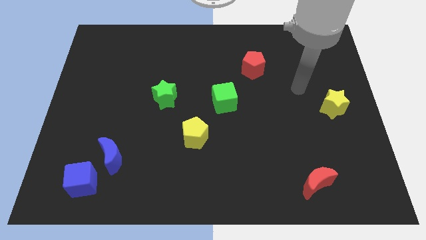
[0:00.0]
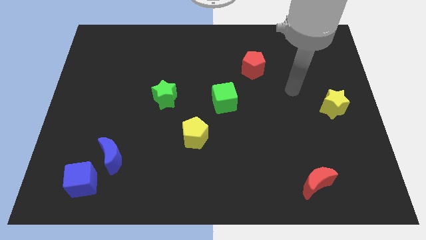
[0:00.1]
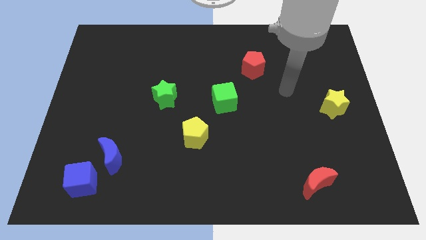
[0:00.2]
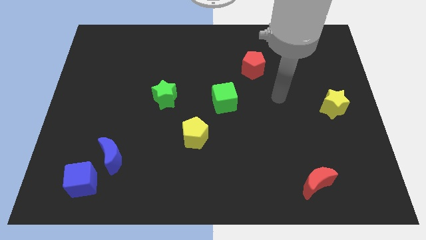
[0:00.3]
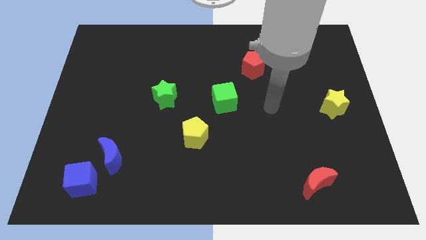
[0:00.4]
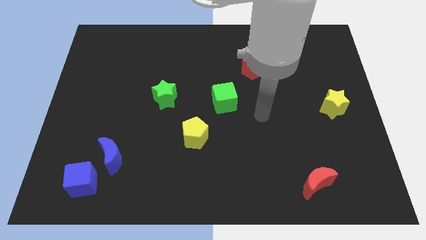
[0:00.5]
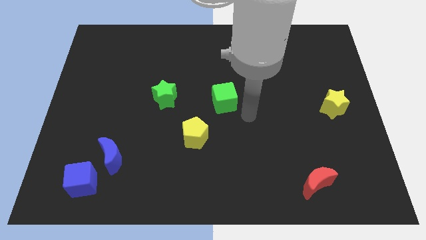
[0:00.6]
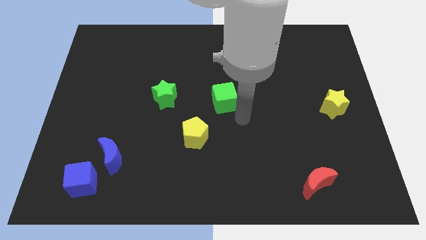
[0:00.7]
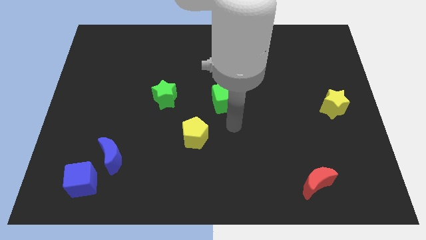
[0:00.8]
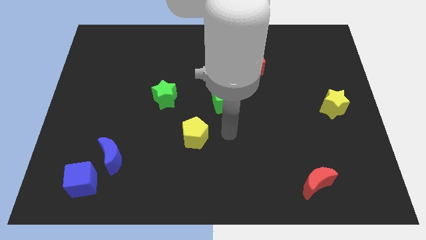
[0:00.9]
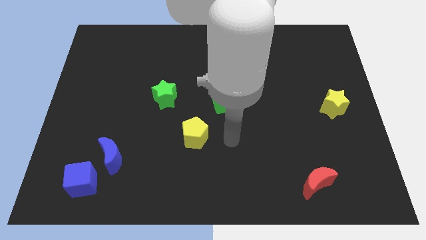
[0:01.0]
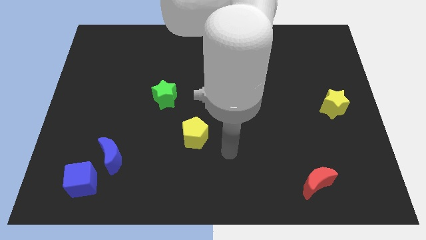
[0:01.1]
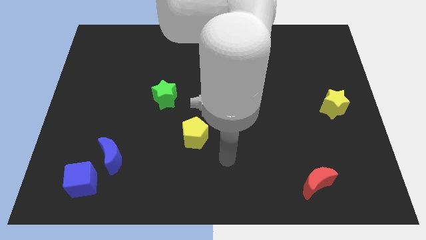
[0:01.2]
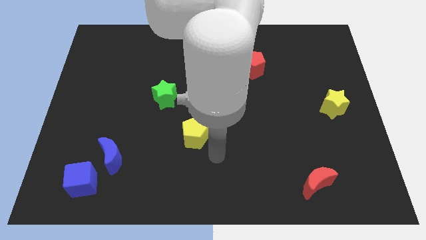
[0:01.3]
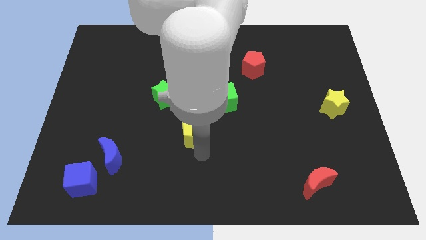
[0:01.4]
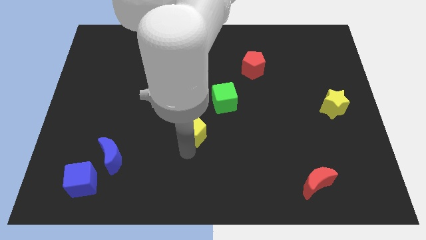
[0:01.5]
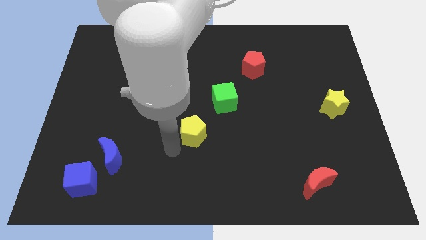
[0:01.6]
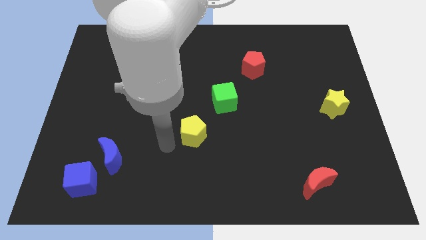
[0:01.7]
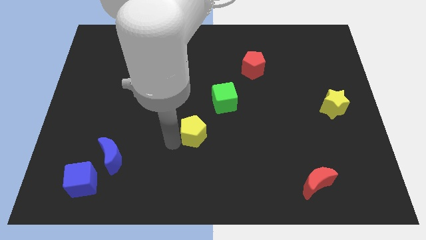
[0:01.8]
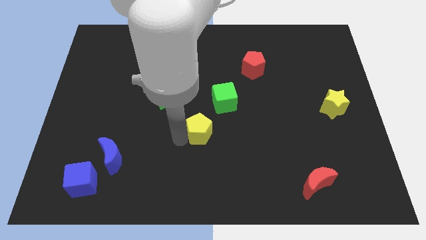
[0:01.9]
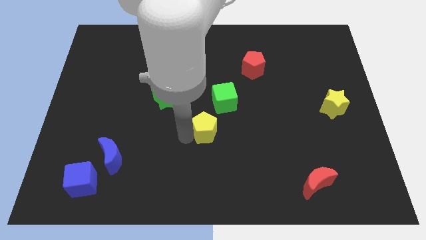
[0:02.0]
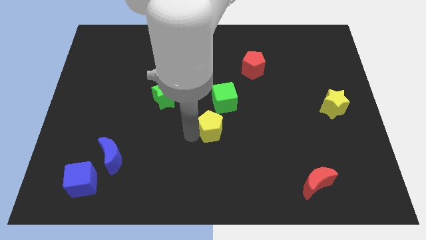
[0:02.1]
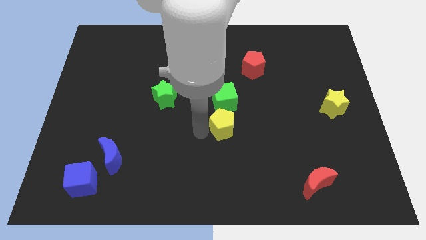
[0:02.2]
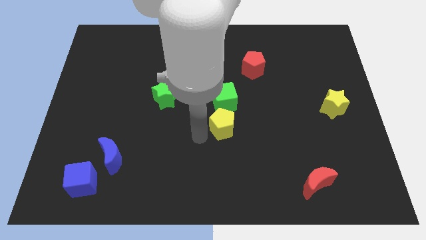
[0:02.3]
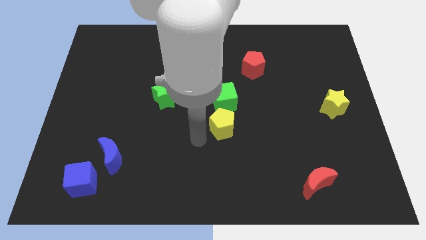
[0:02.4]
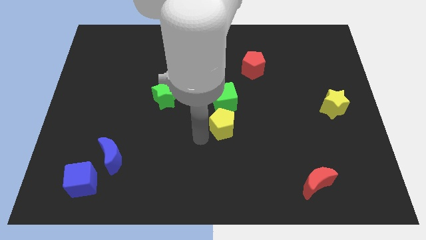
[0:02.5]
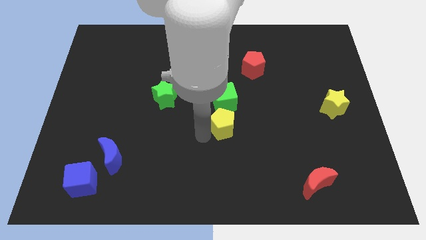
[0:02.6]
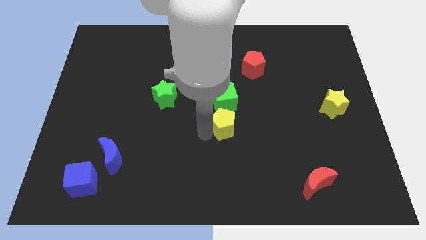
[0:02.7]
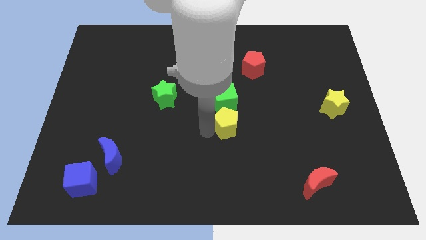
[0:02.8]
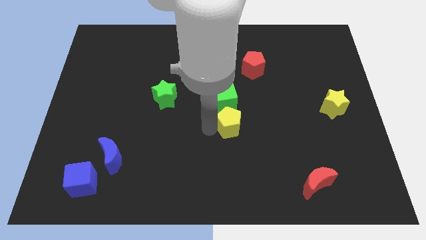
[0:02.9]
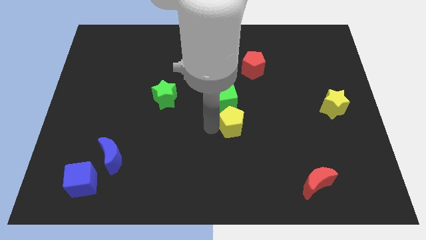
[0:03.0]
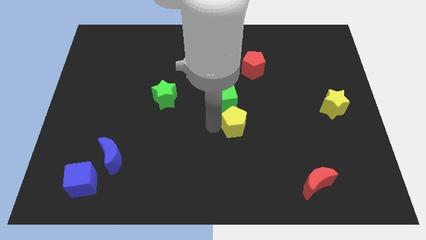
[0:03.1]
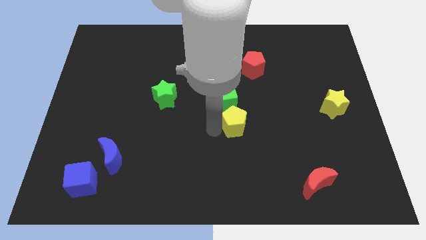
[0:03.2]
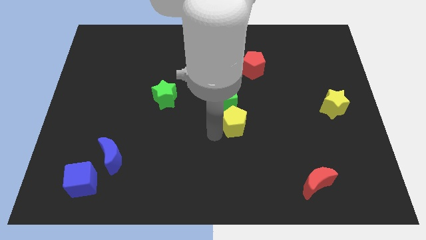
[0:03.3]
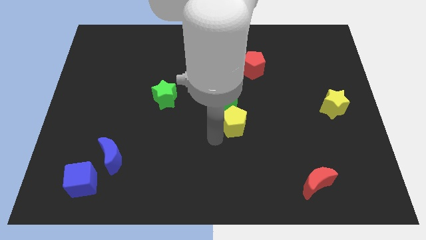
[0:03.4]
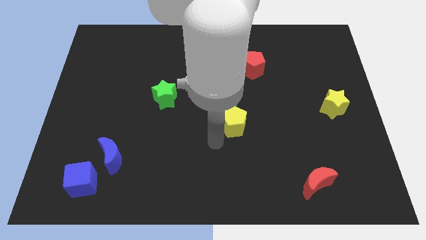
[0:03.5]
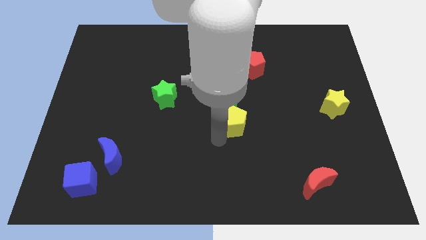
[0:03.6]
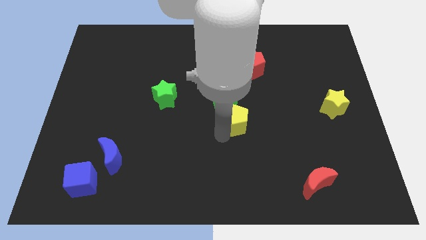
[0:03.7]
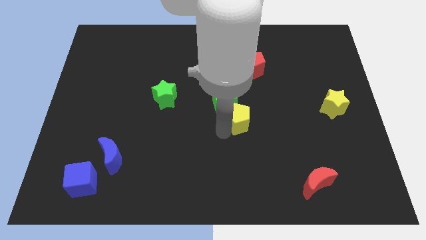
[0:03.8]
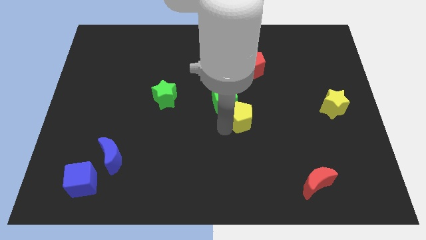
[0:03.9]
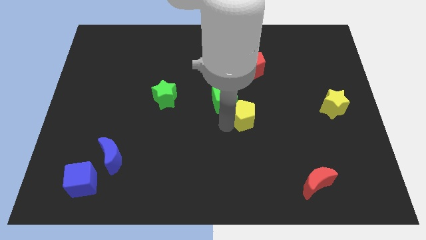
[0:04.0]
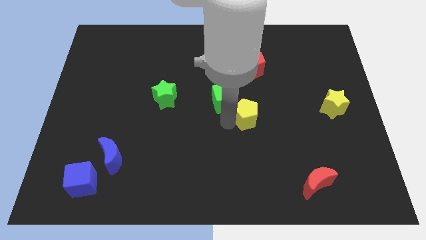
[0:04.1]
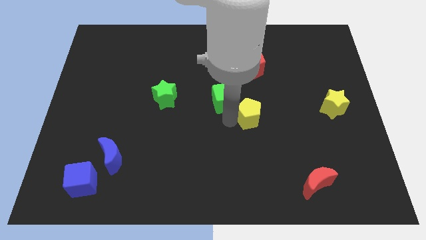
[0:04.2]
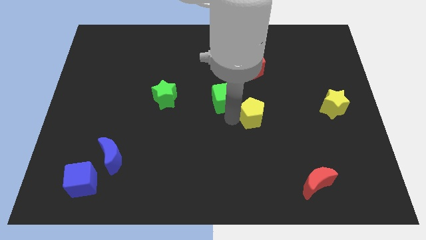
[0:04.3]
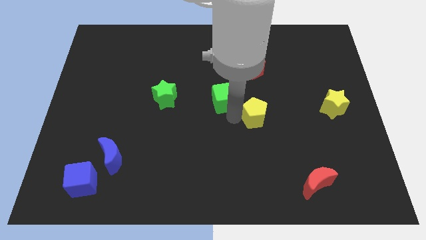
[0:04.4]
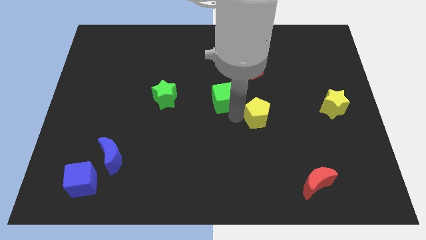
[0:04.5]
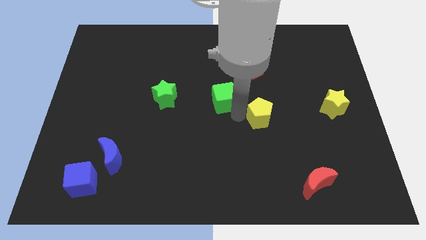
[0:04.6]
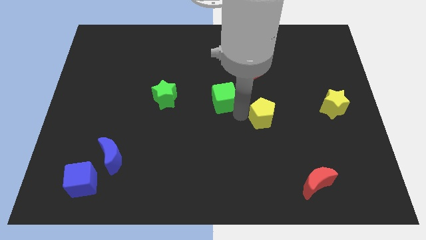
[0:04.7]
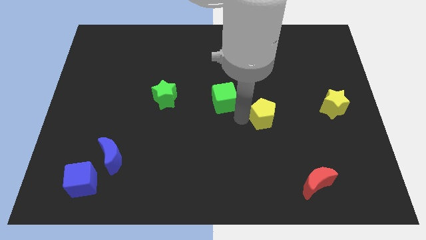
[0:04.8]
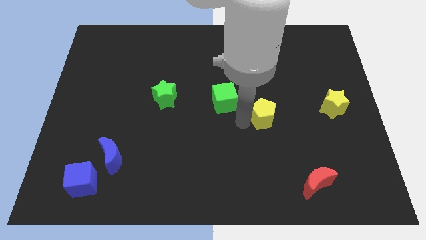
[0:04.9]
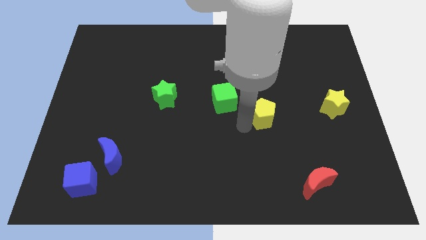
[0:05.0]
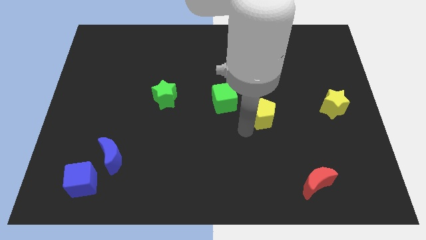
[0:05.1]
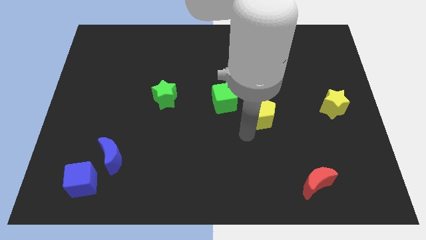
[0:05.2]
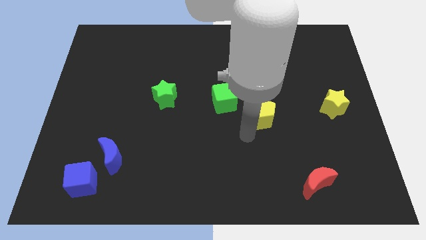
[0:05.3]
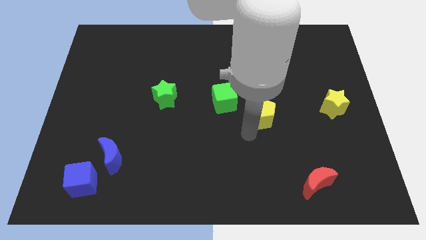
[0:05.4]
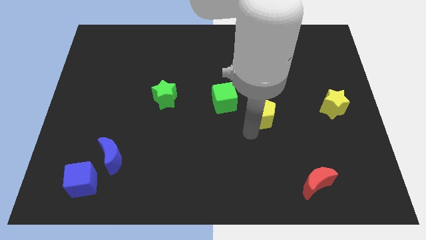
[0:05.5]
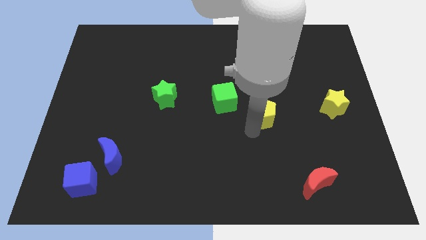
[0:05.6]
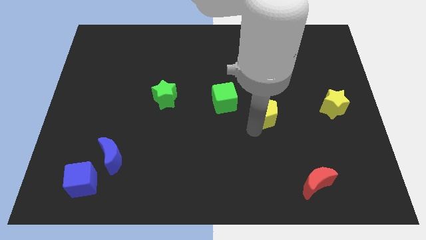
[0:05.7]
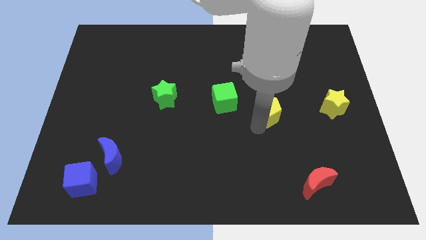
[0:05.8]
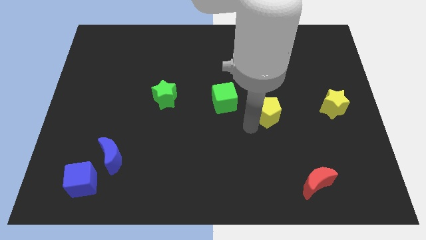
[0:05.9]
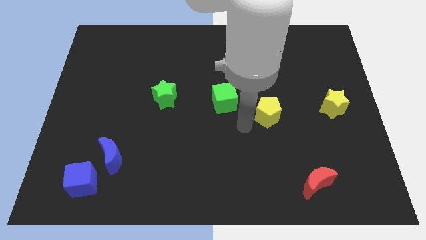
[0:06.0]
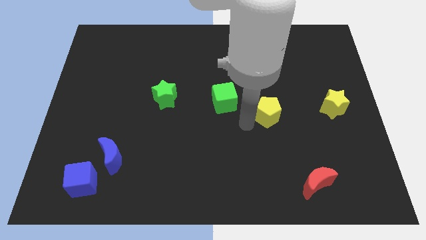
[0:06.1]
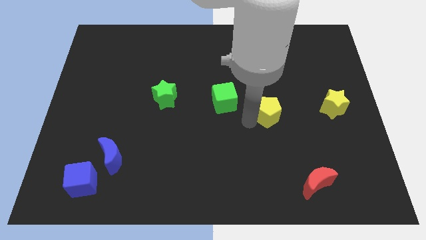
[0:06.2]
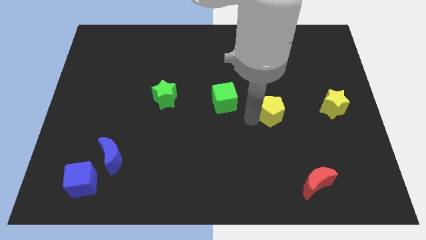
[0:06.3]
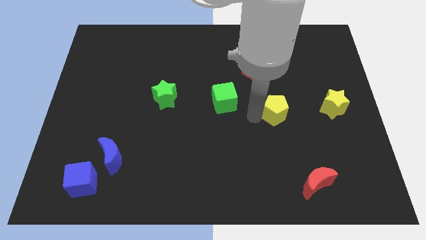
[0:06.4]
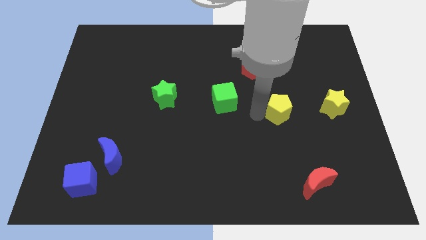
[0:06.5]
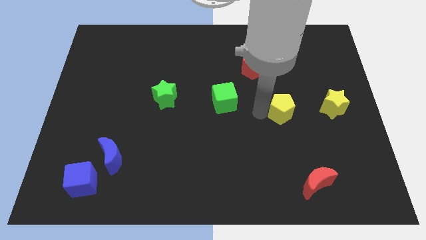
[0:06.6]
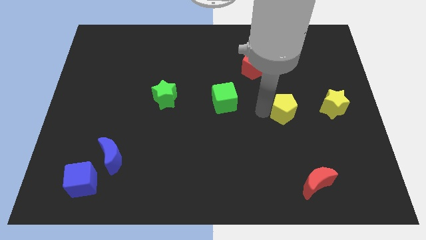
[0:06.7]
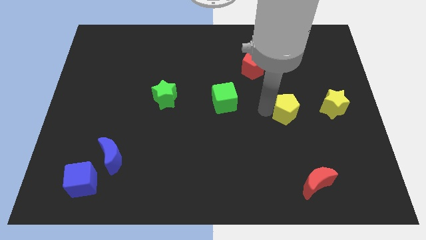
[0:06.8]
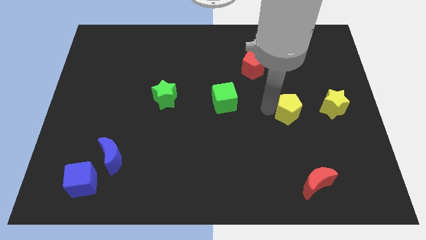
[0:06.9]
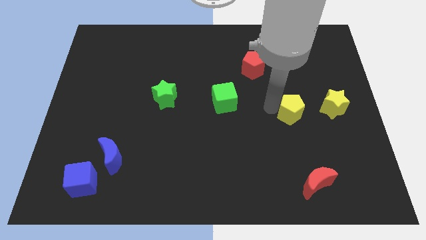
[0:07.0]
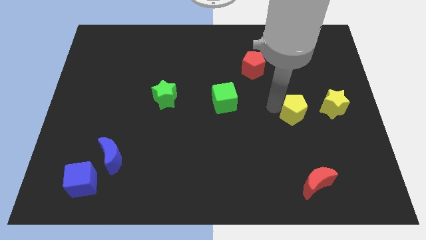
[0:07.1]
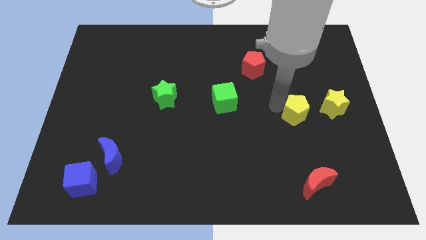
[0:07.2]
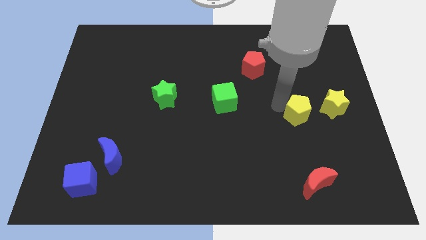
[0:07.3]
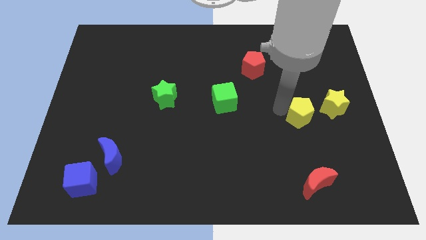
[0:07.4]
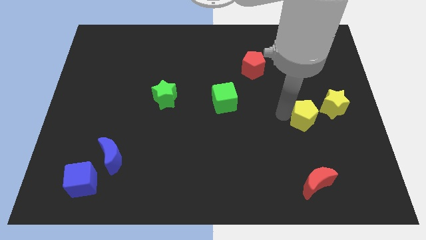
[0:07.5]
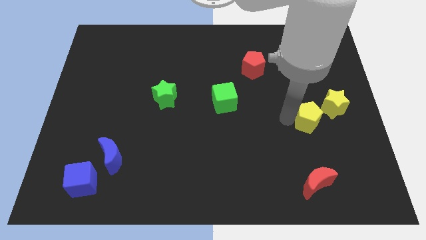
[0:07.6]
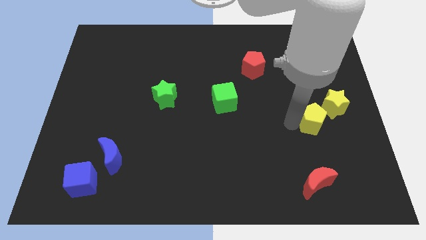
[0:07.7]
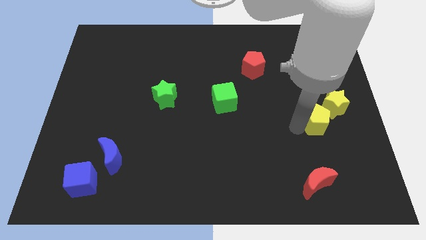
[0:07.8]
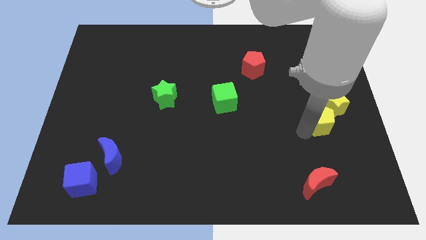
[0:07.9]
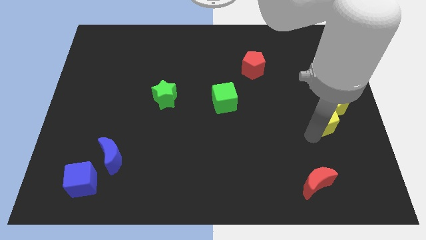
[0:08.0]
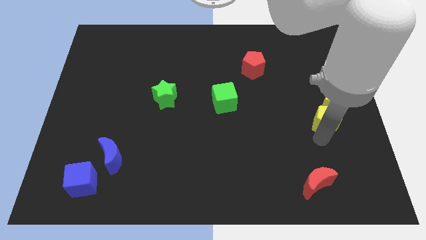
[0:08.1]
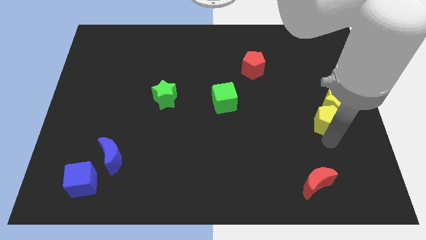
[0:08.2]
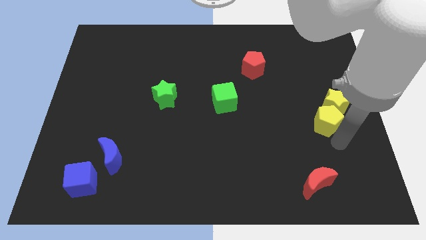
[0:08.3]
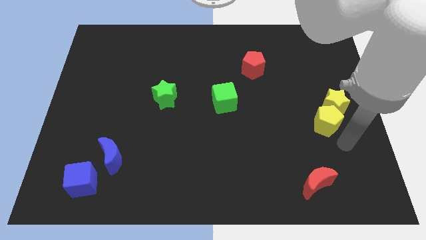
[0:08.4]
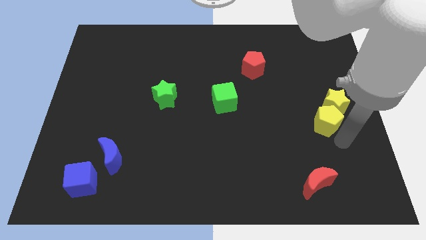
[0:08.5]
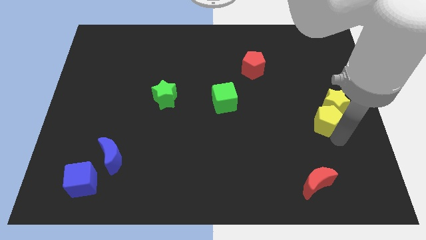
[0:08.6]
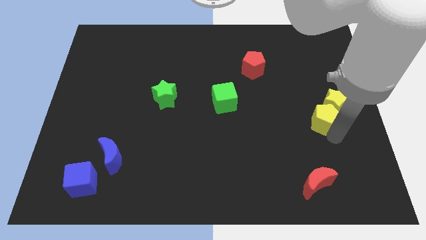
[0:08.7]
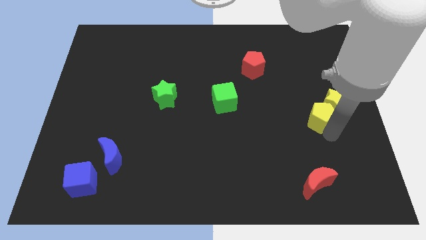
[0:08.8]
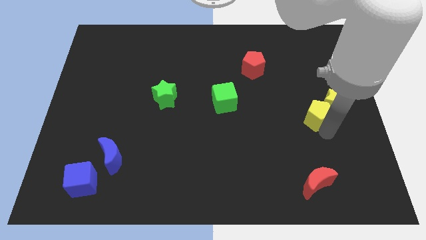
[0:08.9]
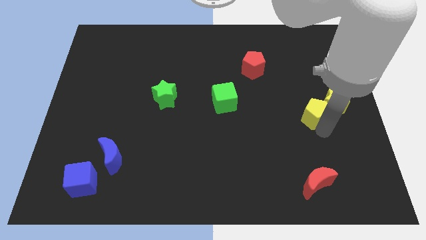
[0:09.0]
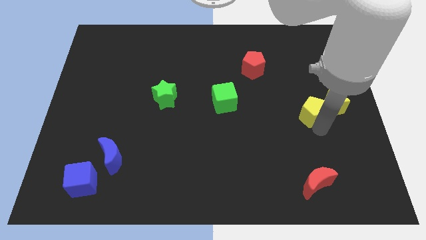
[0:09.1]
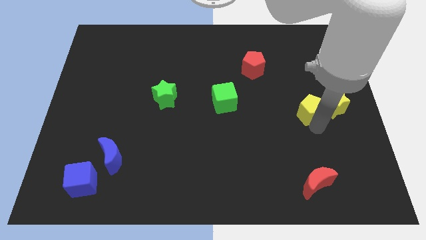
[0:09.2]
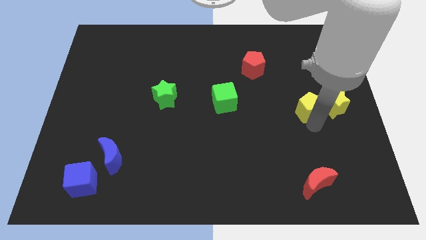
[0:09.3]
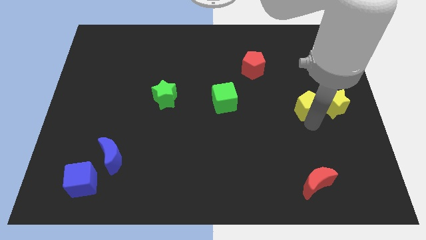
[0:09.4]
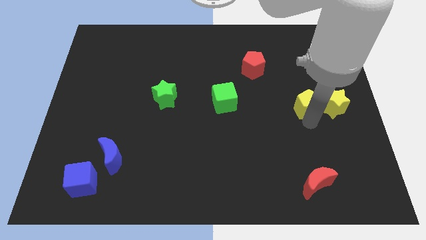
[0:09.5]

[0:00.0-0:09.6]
push the yellow pentagon to the top left of the yellow star
